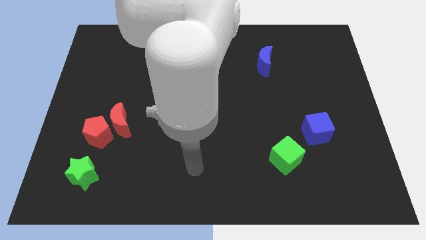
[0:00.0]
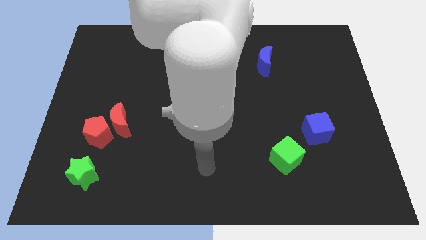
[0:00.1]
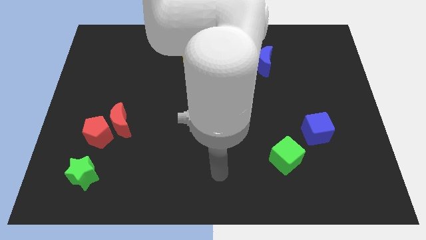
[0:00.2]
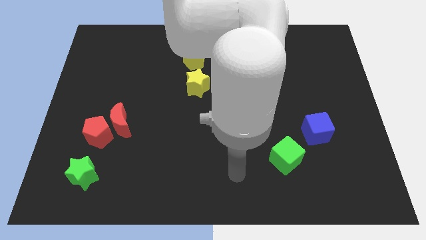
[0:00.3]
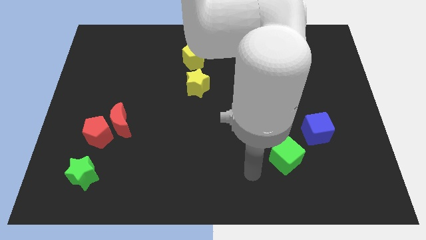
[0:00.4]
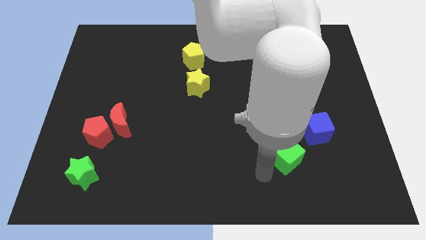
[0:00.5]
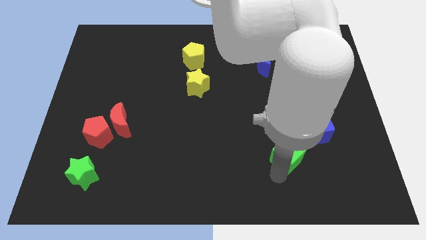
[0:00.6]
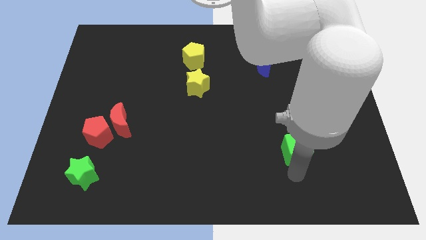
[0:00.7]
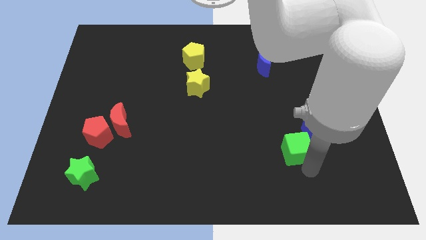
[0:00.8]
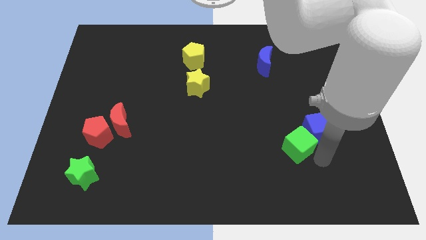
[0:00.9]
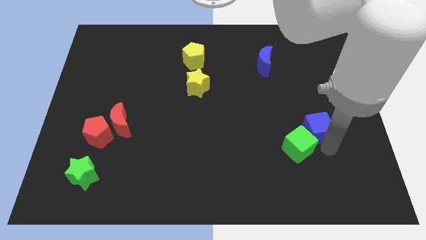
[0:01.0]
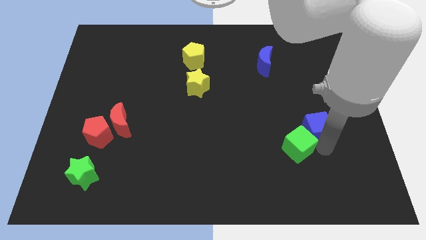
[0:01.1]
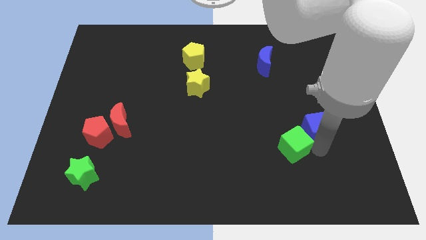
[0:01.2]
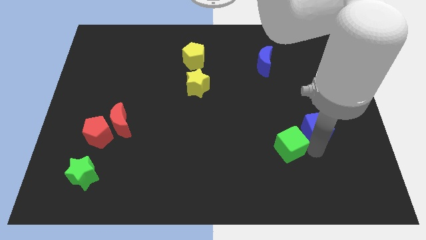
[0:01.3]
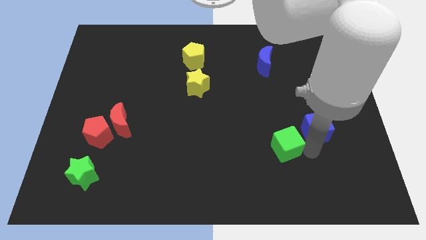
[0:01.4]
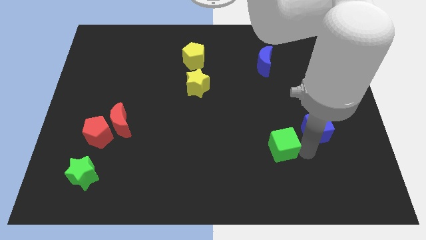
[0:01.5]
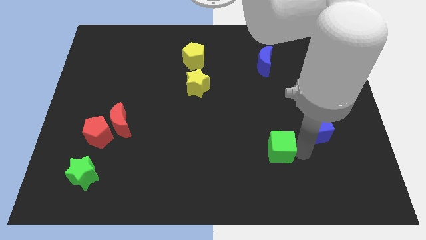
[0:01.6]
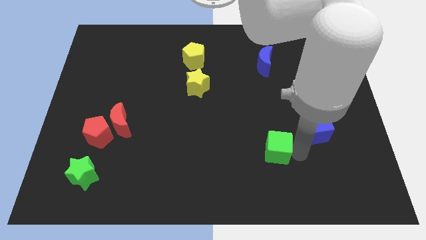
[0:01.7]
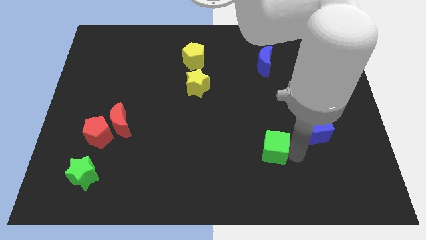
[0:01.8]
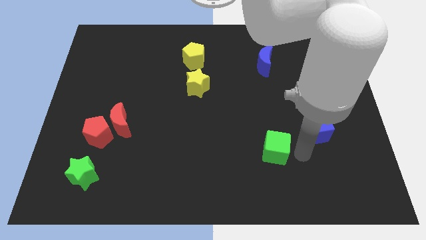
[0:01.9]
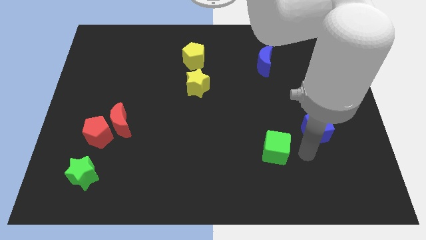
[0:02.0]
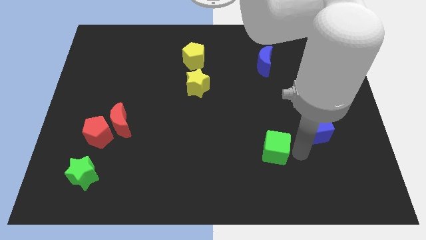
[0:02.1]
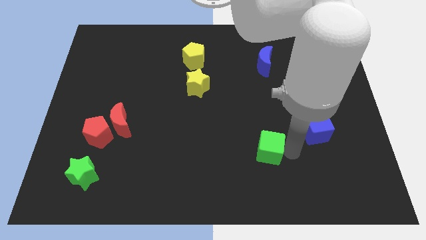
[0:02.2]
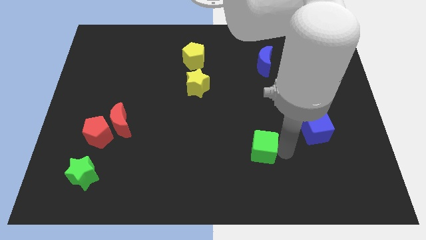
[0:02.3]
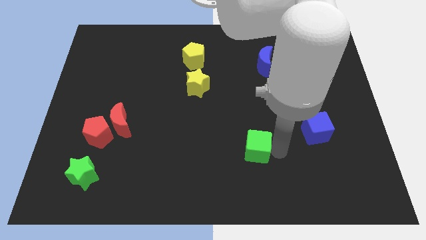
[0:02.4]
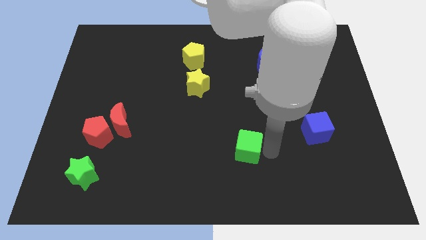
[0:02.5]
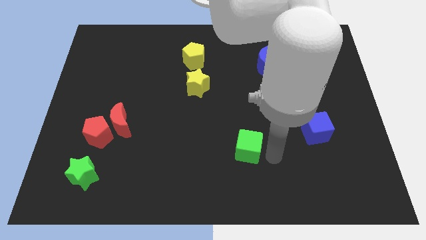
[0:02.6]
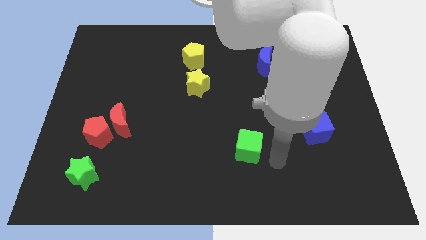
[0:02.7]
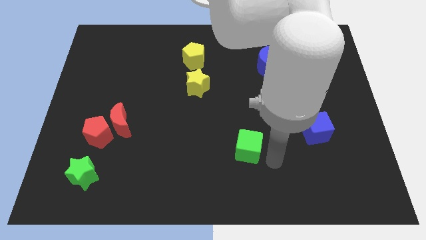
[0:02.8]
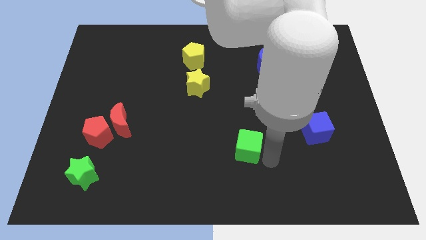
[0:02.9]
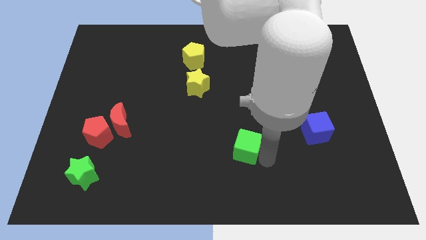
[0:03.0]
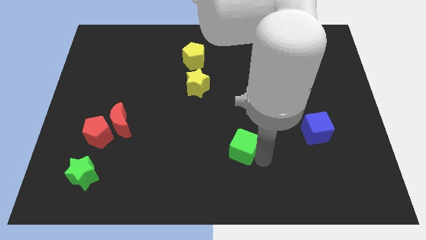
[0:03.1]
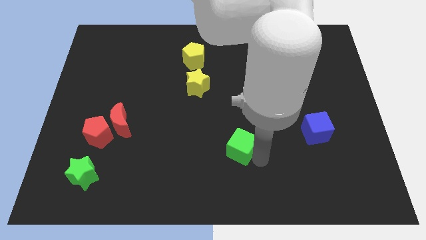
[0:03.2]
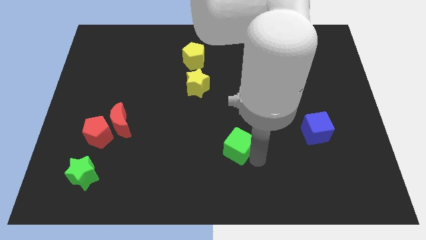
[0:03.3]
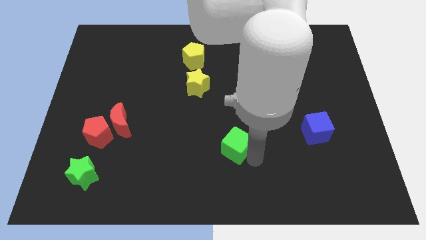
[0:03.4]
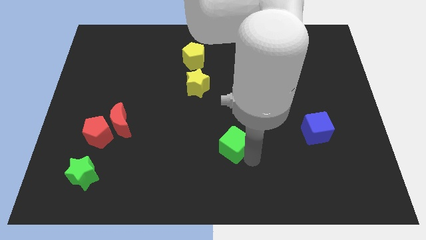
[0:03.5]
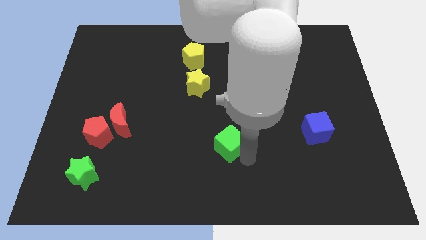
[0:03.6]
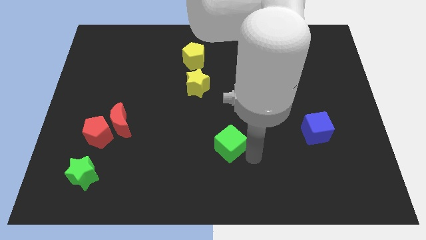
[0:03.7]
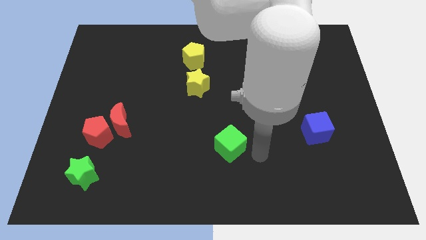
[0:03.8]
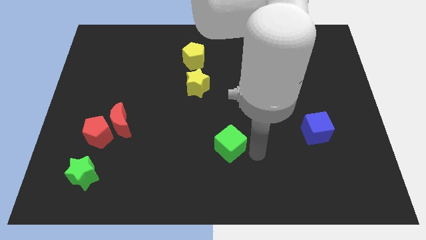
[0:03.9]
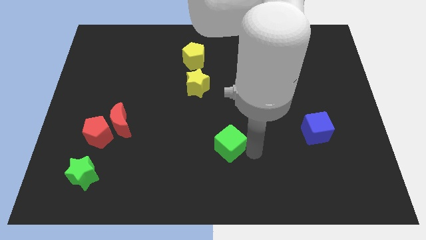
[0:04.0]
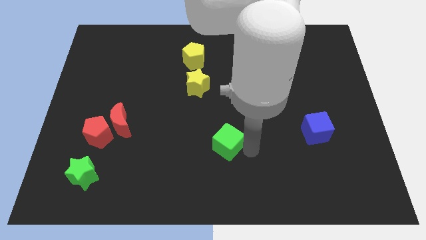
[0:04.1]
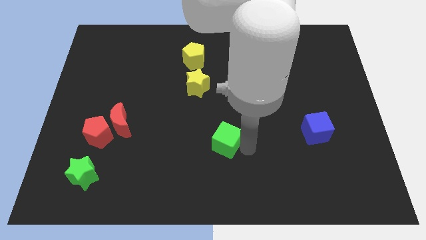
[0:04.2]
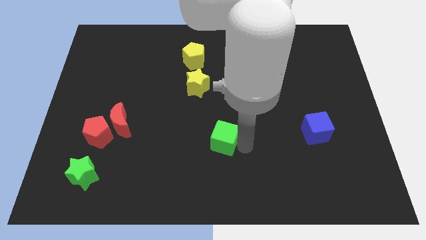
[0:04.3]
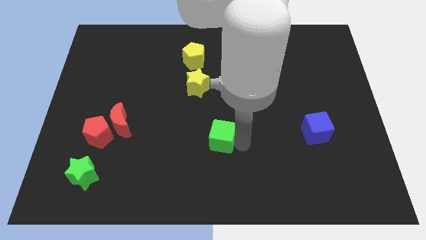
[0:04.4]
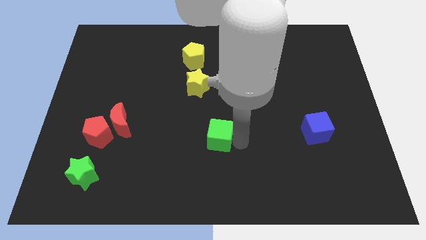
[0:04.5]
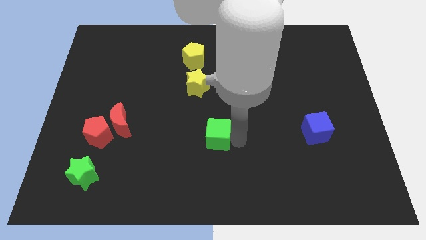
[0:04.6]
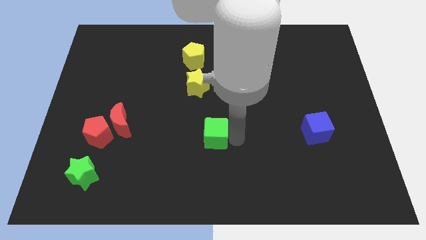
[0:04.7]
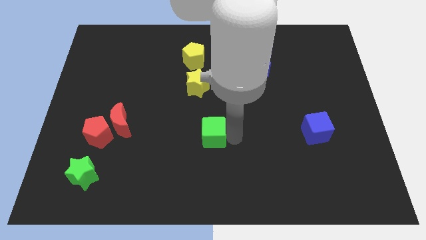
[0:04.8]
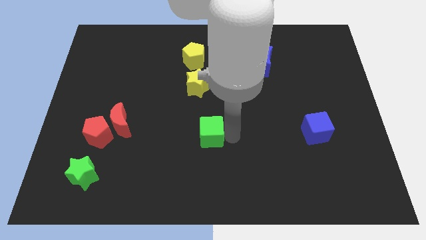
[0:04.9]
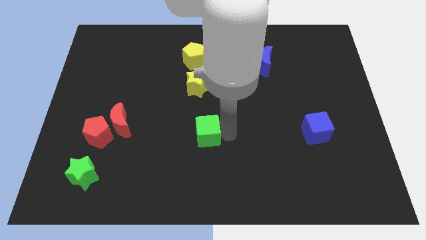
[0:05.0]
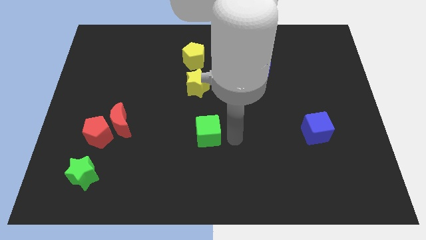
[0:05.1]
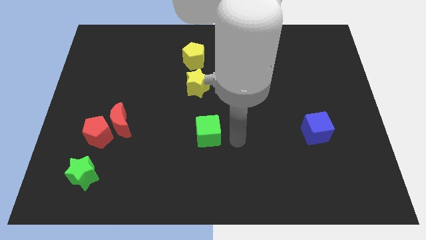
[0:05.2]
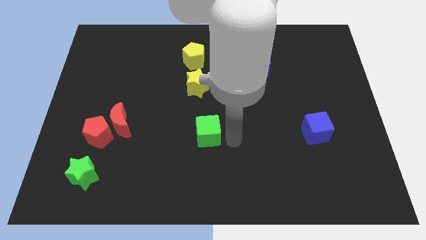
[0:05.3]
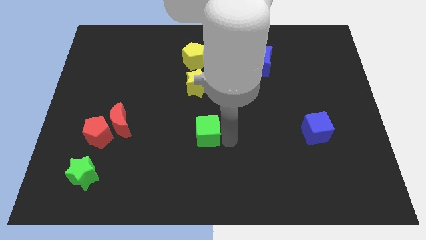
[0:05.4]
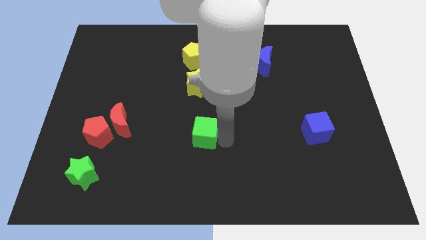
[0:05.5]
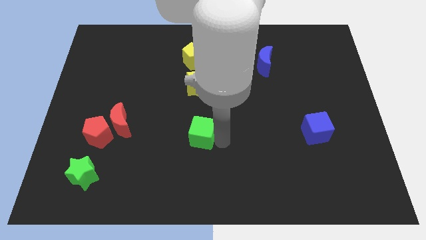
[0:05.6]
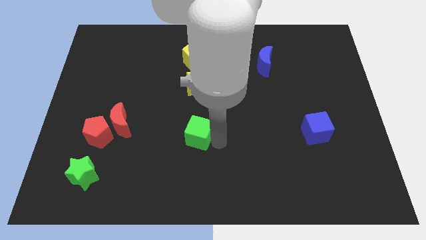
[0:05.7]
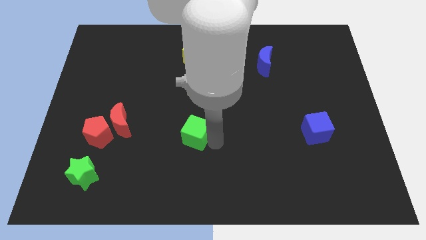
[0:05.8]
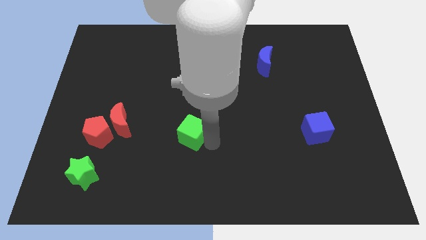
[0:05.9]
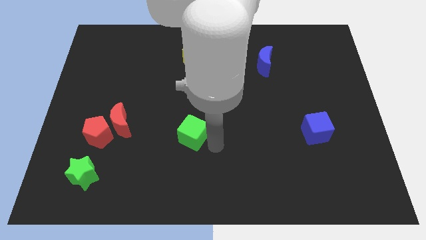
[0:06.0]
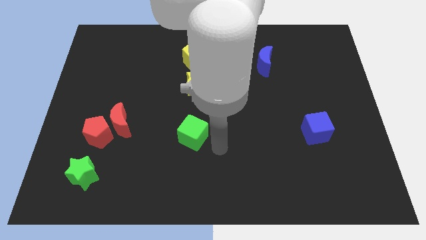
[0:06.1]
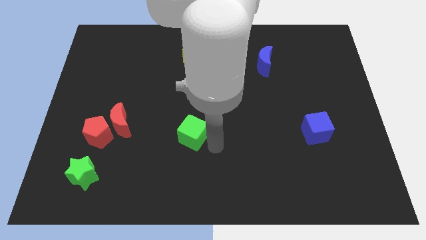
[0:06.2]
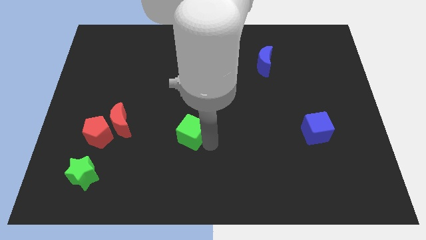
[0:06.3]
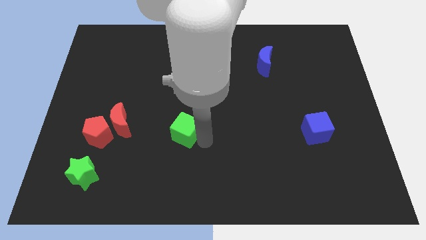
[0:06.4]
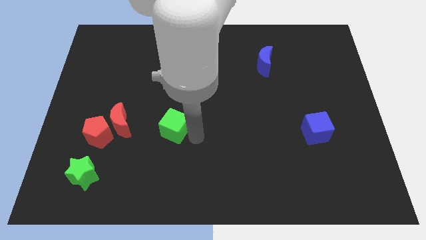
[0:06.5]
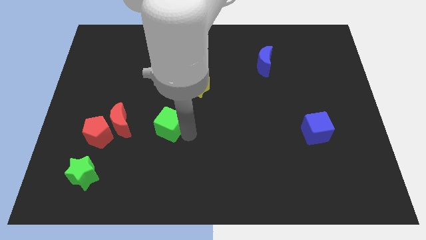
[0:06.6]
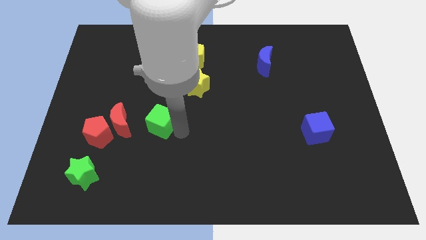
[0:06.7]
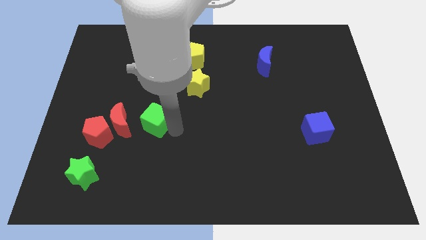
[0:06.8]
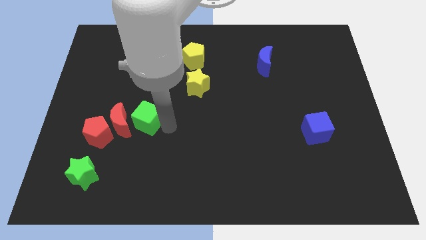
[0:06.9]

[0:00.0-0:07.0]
move the green cube to the top right side of the red pentagon
